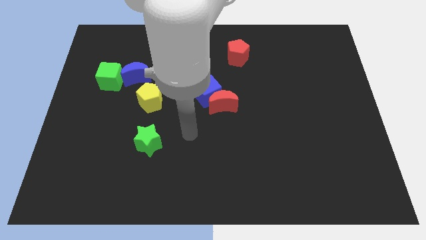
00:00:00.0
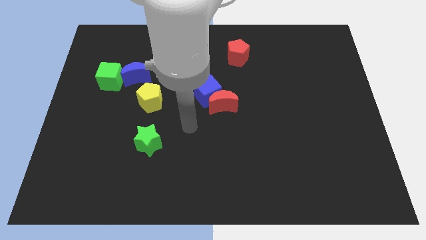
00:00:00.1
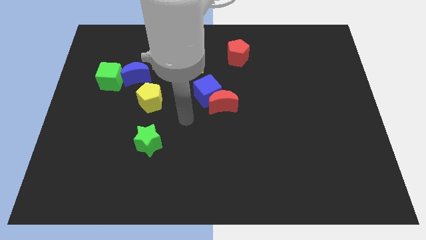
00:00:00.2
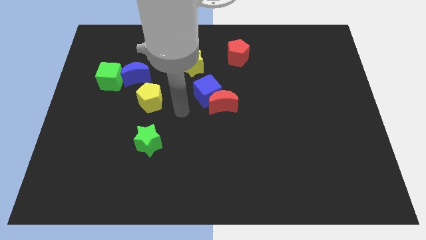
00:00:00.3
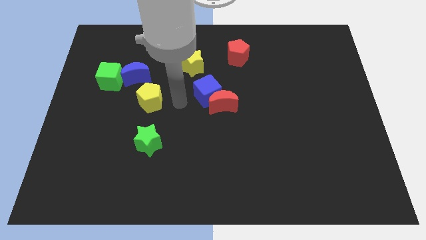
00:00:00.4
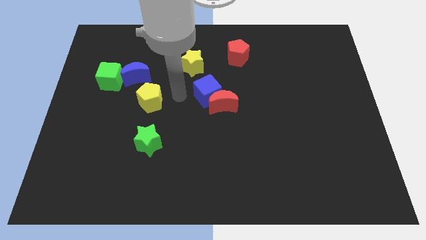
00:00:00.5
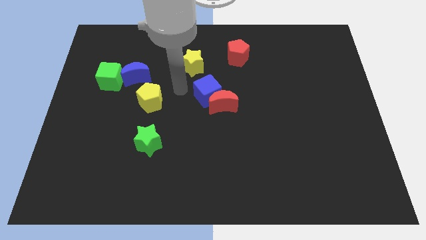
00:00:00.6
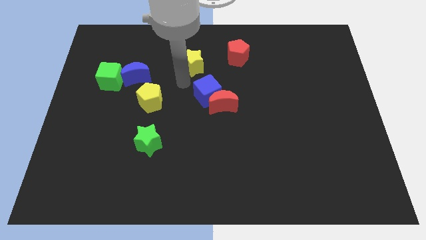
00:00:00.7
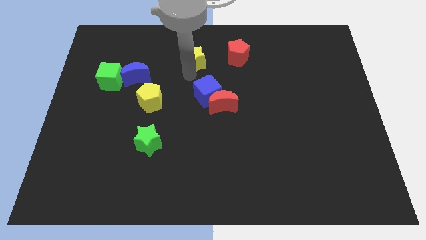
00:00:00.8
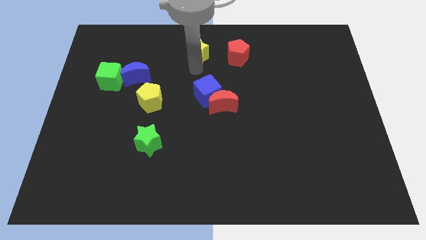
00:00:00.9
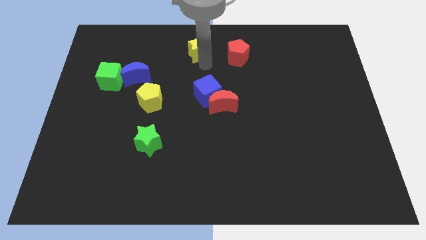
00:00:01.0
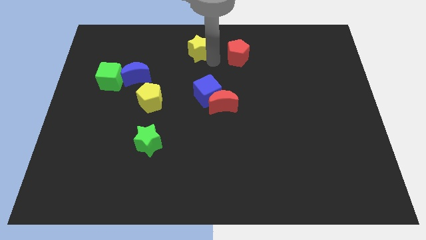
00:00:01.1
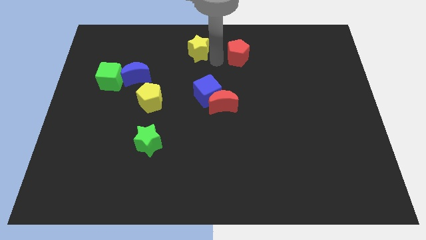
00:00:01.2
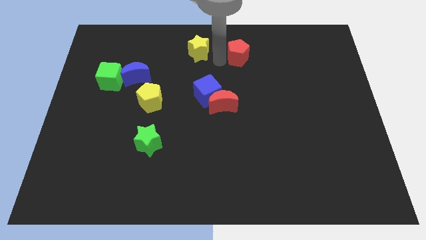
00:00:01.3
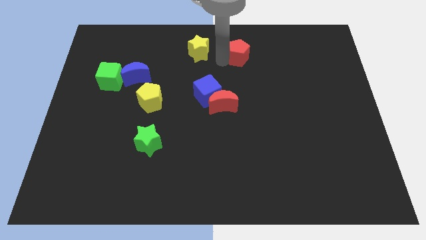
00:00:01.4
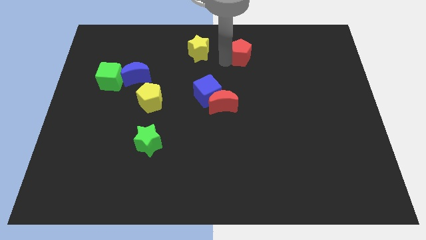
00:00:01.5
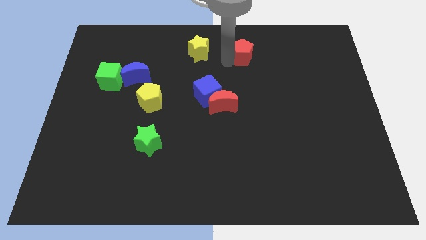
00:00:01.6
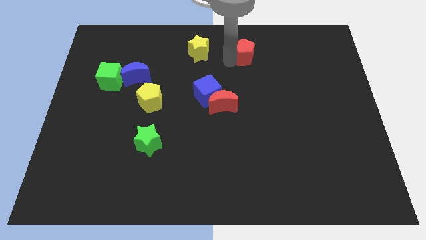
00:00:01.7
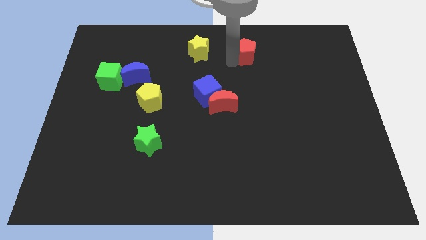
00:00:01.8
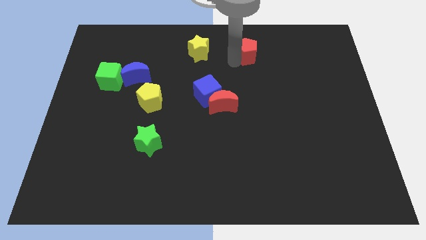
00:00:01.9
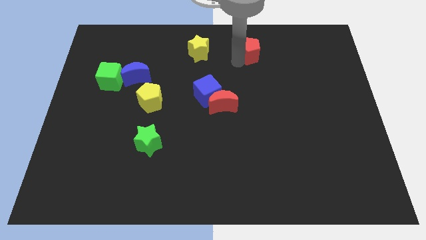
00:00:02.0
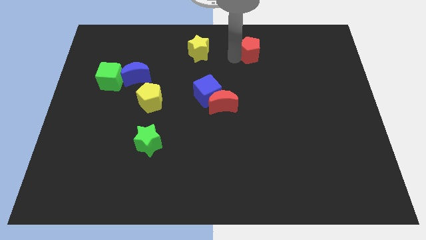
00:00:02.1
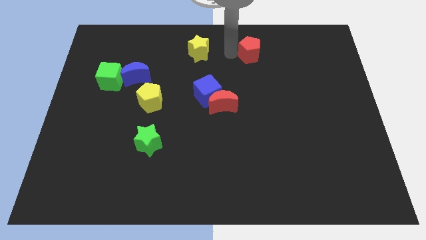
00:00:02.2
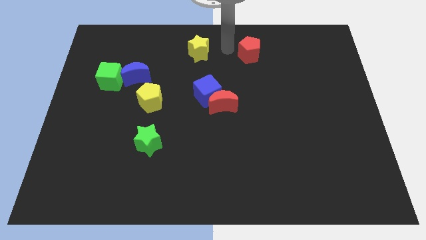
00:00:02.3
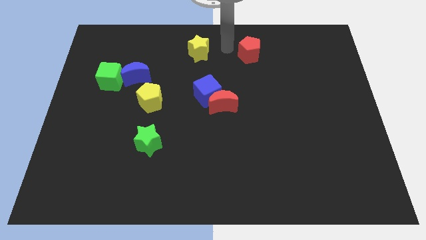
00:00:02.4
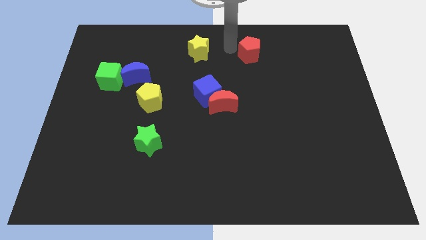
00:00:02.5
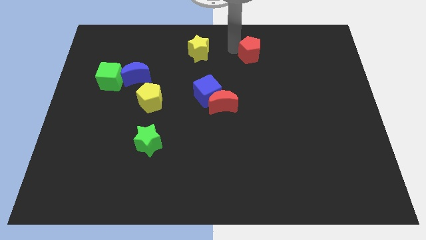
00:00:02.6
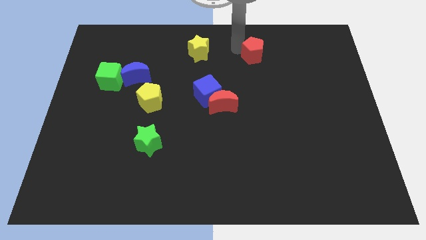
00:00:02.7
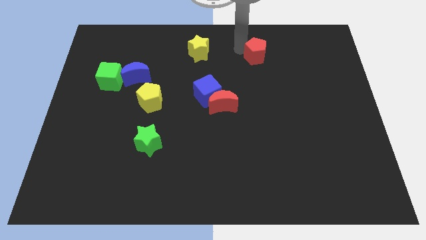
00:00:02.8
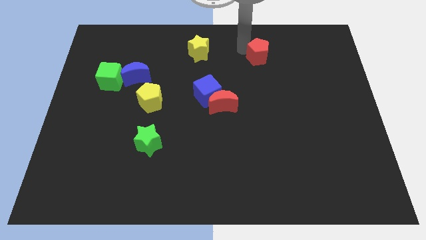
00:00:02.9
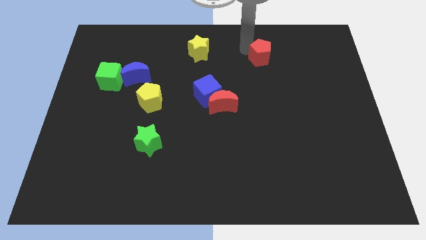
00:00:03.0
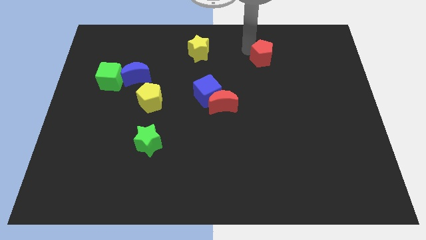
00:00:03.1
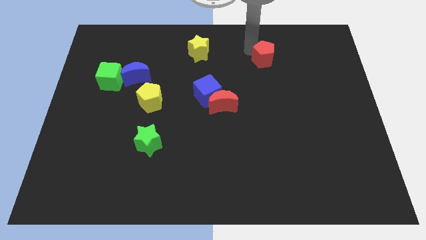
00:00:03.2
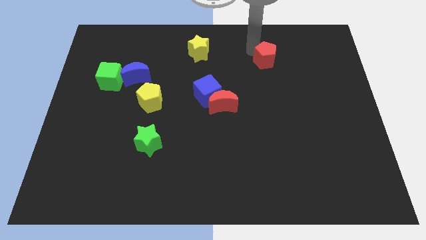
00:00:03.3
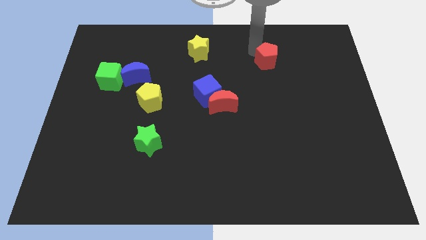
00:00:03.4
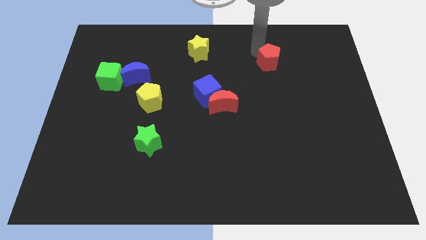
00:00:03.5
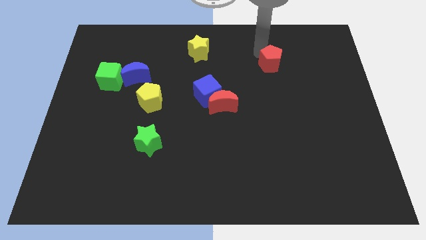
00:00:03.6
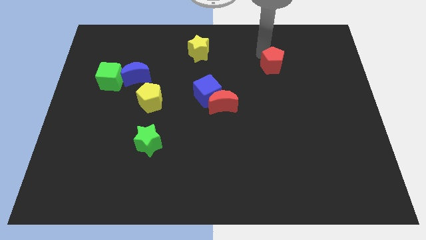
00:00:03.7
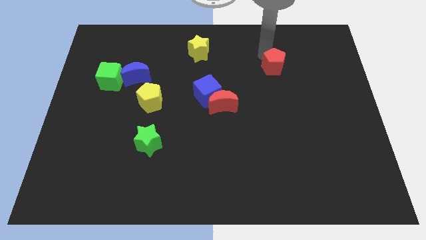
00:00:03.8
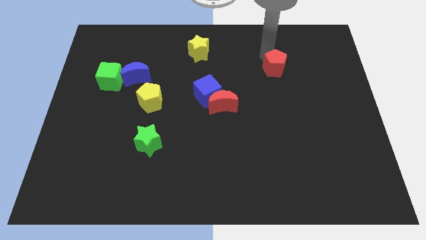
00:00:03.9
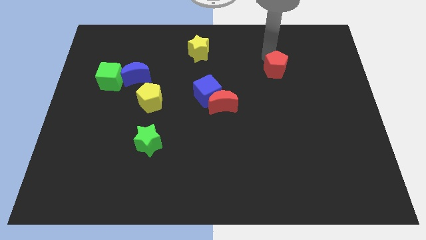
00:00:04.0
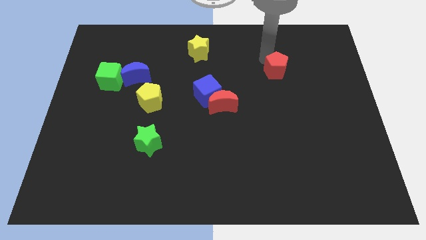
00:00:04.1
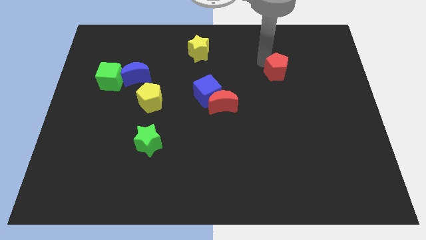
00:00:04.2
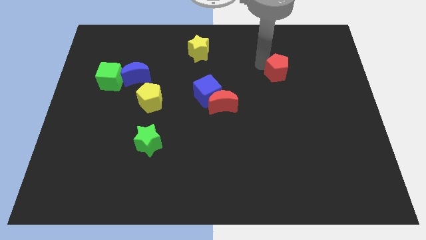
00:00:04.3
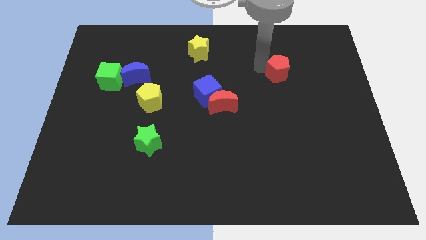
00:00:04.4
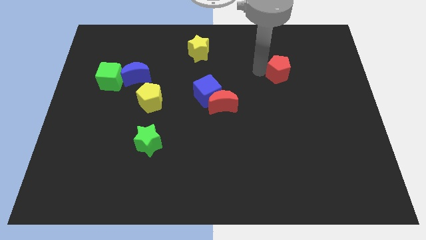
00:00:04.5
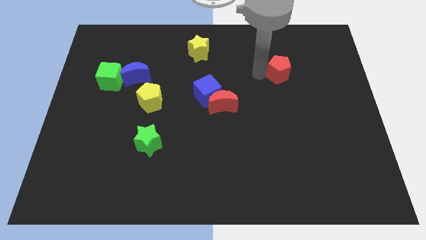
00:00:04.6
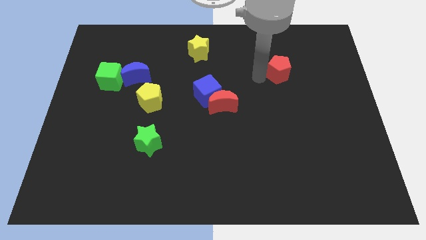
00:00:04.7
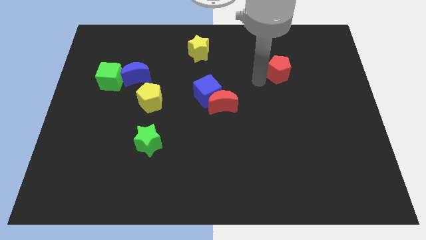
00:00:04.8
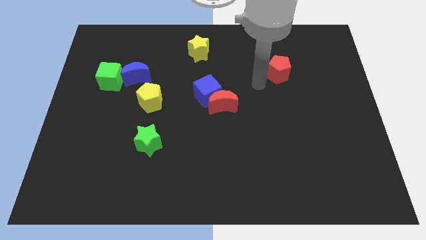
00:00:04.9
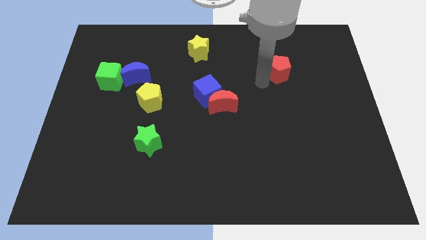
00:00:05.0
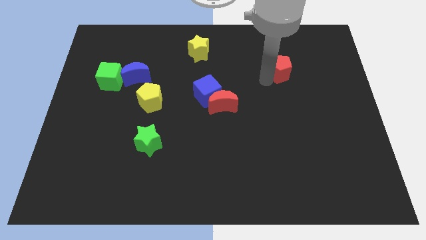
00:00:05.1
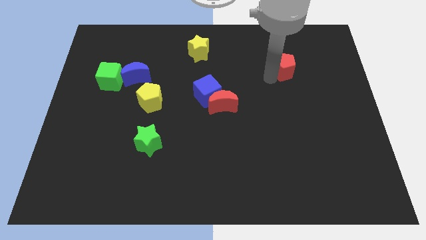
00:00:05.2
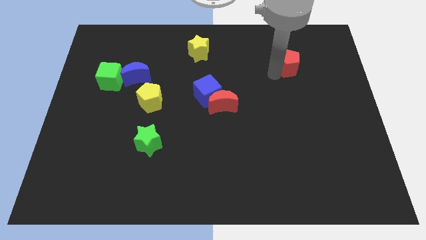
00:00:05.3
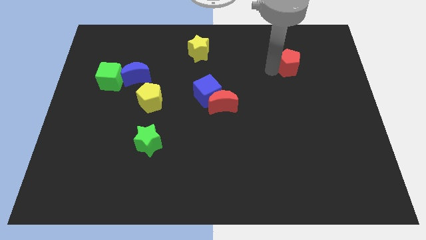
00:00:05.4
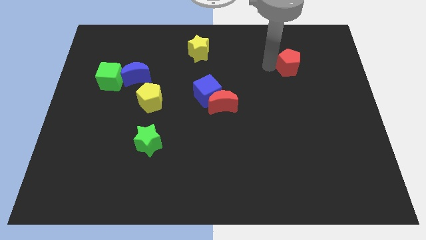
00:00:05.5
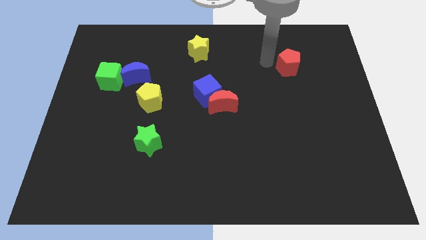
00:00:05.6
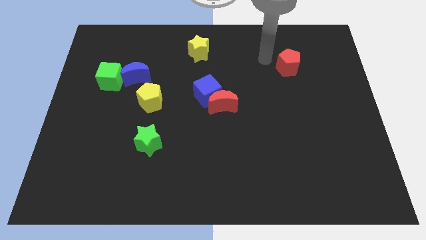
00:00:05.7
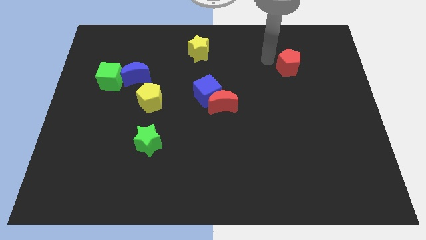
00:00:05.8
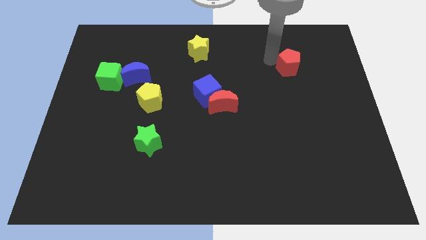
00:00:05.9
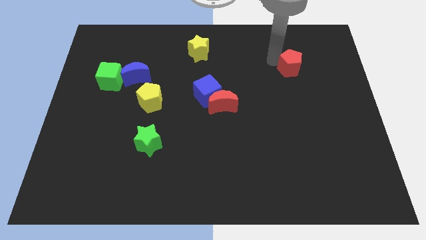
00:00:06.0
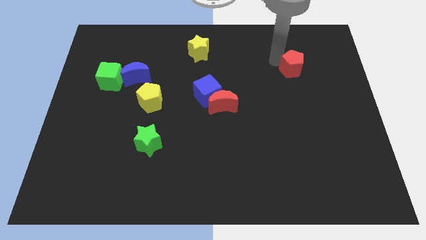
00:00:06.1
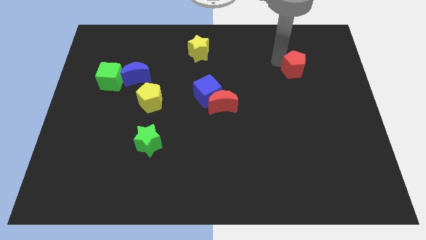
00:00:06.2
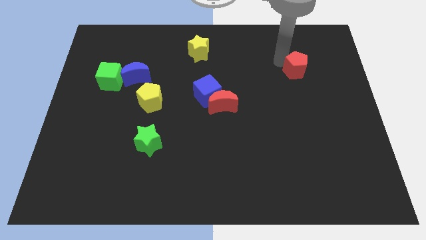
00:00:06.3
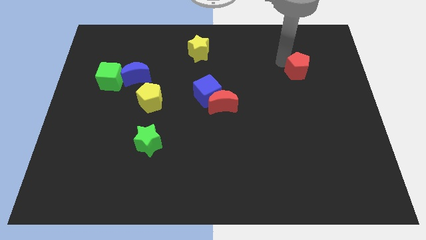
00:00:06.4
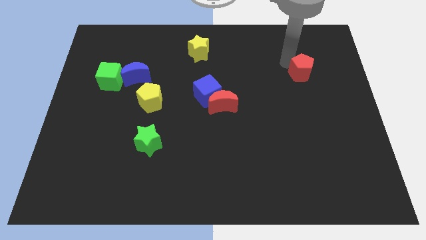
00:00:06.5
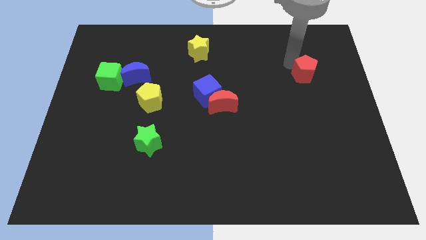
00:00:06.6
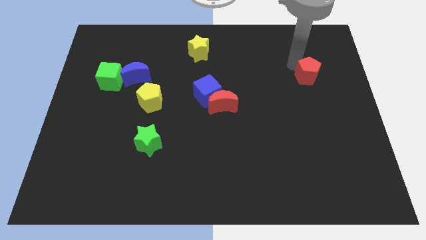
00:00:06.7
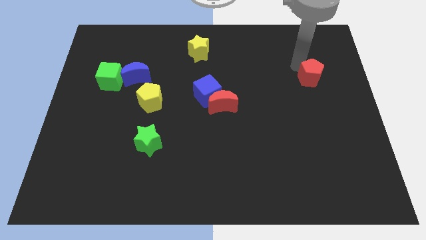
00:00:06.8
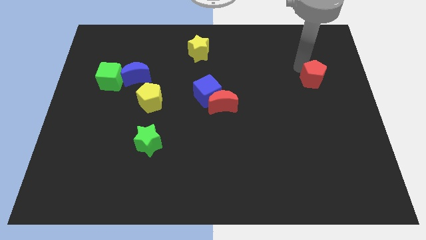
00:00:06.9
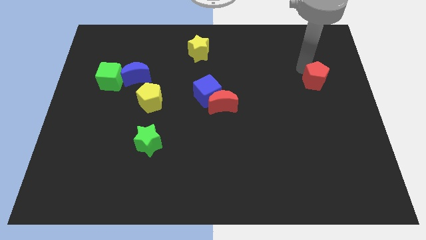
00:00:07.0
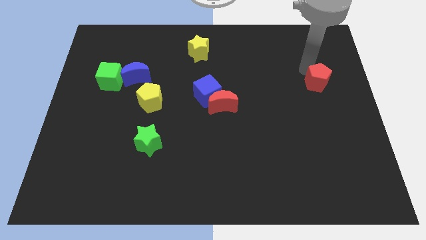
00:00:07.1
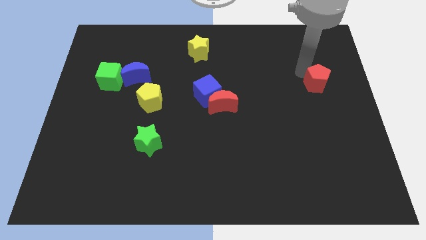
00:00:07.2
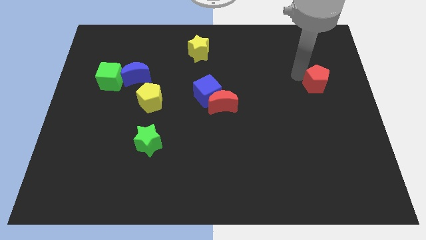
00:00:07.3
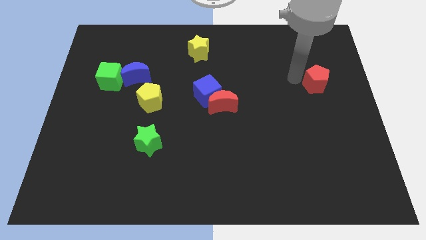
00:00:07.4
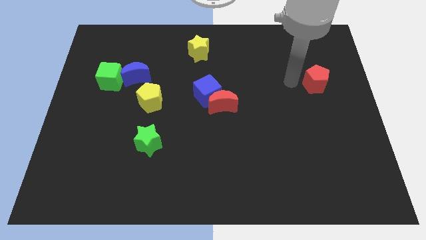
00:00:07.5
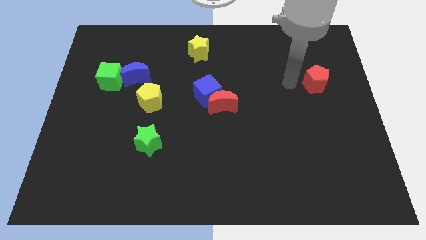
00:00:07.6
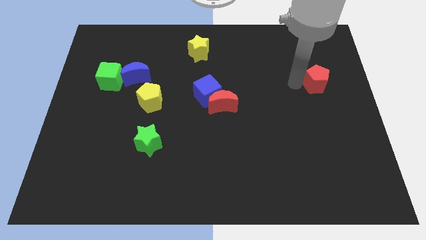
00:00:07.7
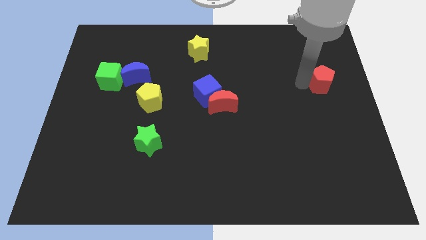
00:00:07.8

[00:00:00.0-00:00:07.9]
slide the red pentagon to the right side

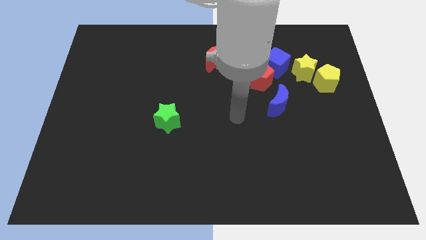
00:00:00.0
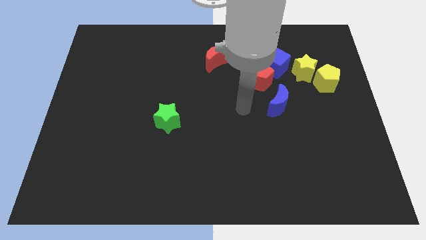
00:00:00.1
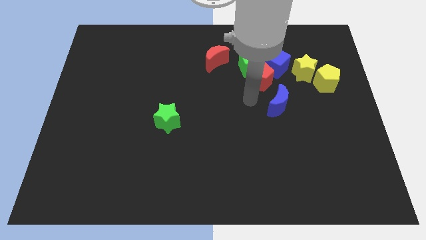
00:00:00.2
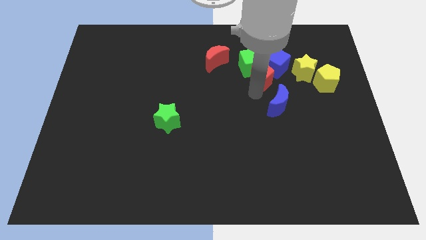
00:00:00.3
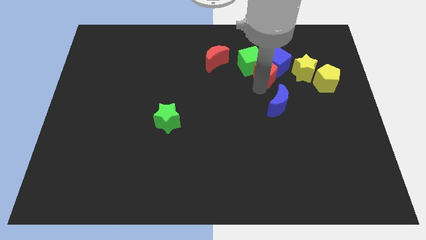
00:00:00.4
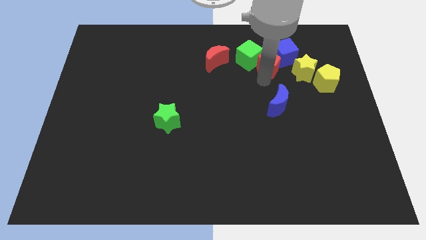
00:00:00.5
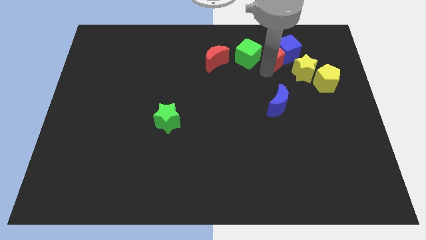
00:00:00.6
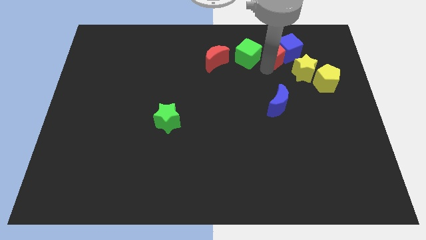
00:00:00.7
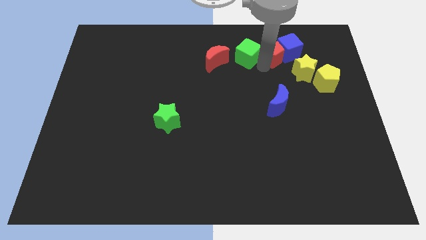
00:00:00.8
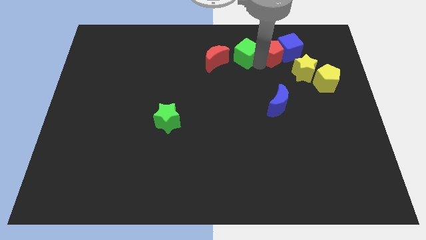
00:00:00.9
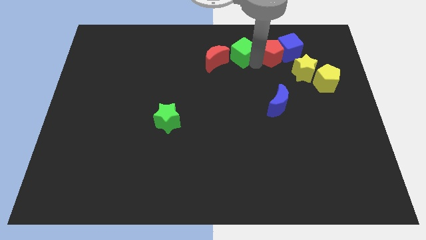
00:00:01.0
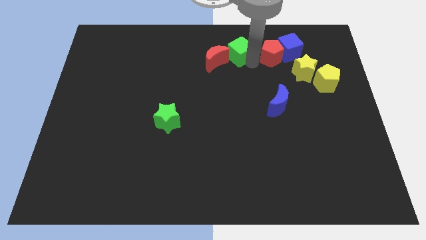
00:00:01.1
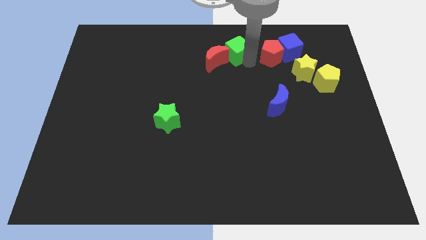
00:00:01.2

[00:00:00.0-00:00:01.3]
put the green cube to the towards your base
